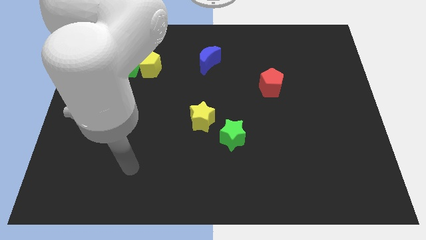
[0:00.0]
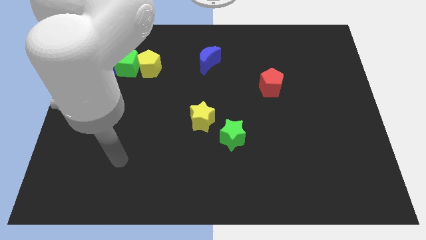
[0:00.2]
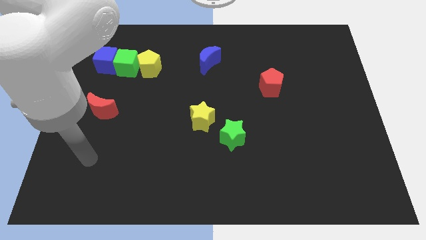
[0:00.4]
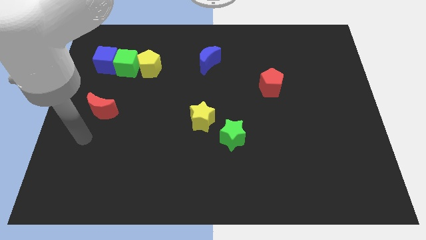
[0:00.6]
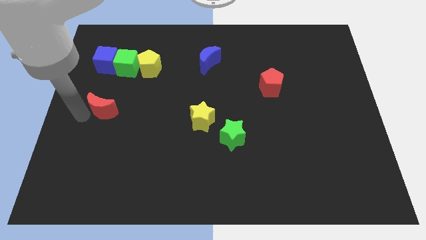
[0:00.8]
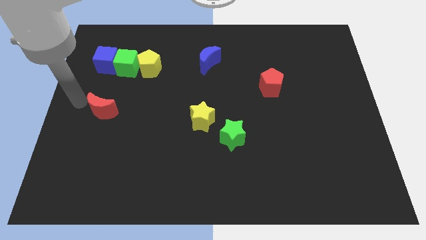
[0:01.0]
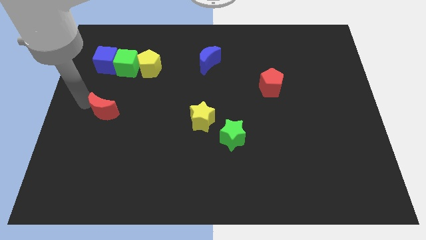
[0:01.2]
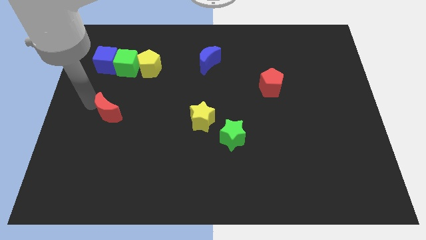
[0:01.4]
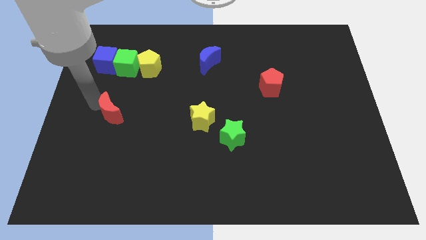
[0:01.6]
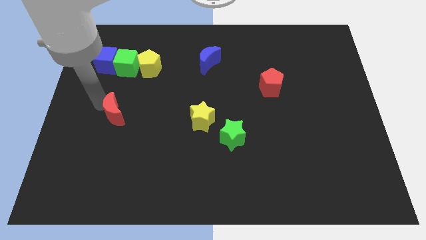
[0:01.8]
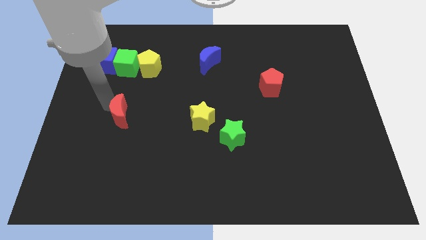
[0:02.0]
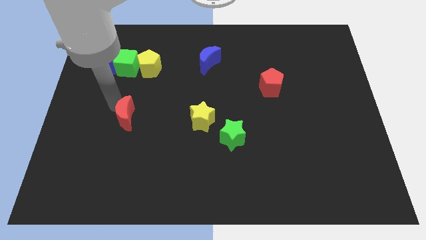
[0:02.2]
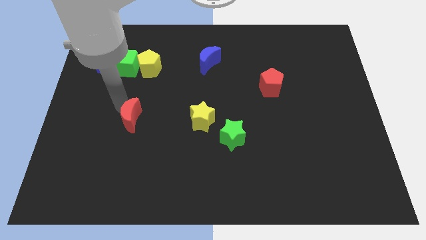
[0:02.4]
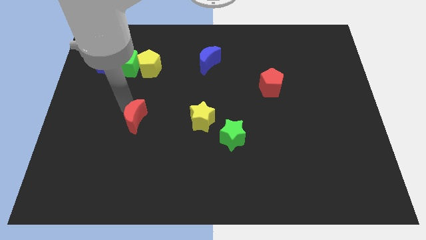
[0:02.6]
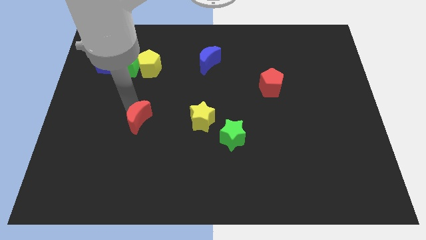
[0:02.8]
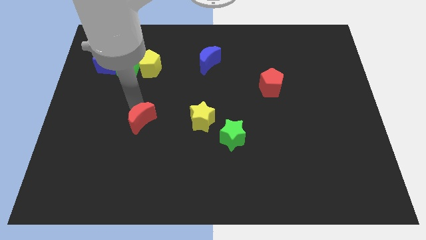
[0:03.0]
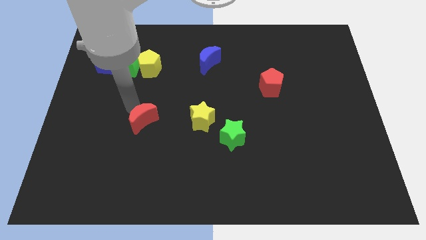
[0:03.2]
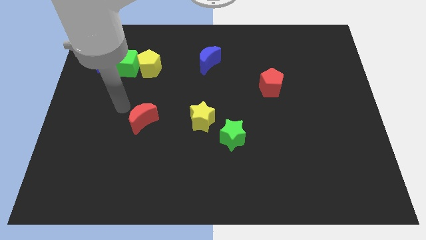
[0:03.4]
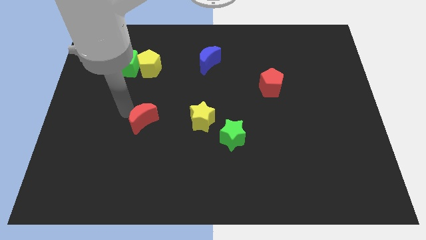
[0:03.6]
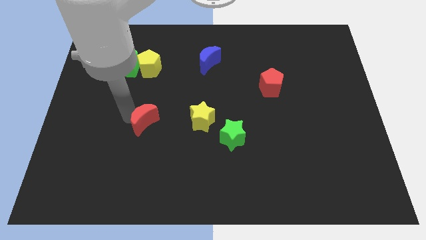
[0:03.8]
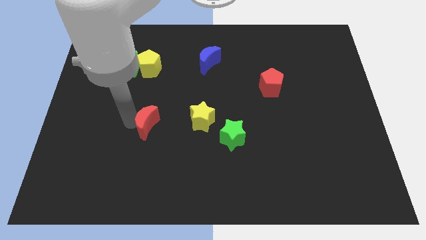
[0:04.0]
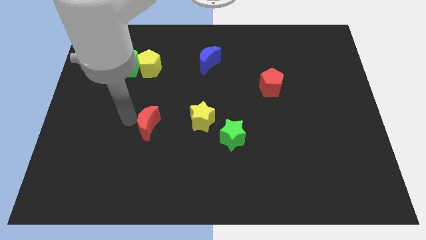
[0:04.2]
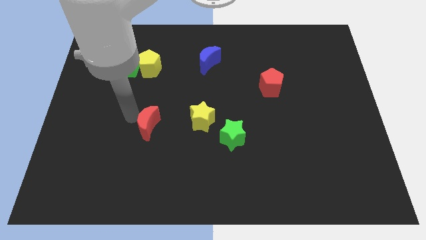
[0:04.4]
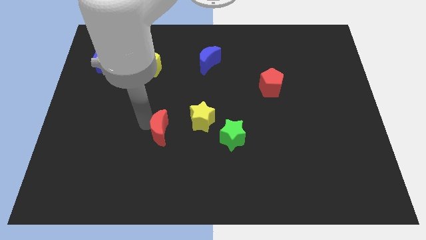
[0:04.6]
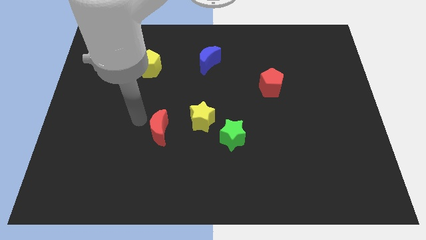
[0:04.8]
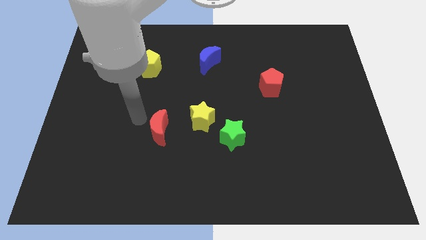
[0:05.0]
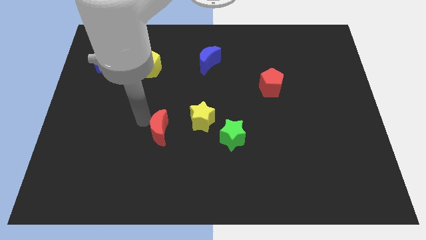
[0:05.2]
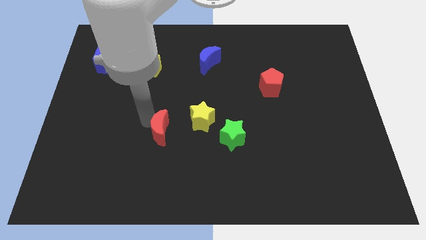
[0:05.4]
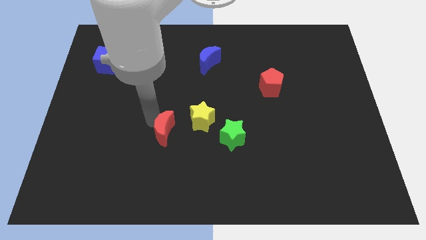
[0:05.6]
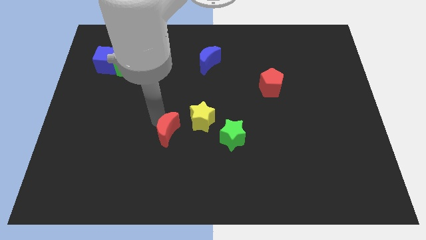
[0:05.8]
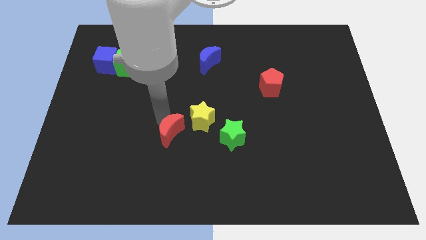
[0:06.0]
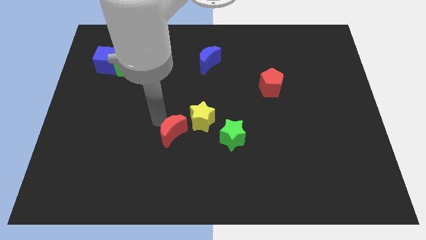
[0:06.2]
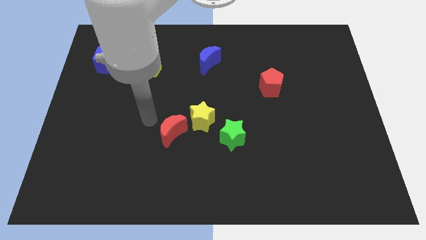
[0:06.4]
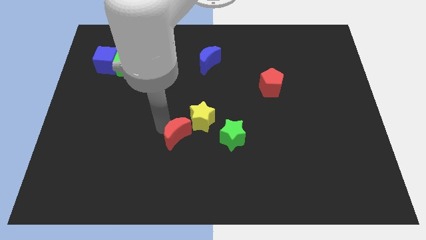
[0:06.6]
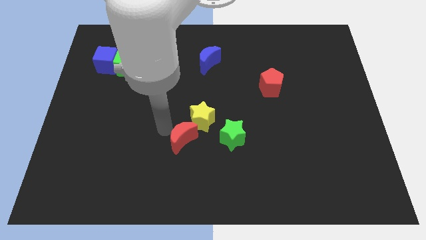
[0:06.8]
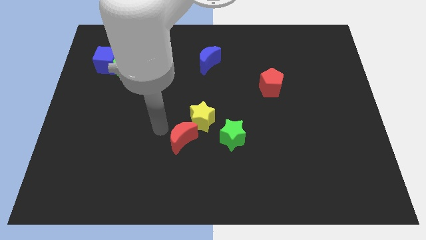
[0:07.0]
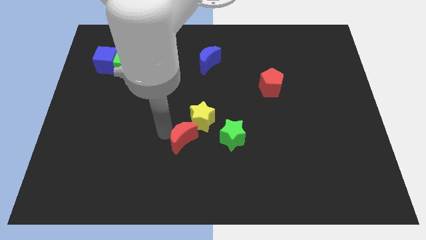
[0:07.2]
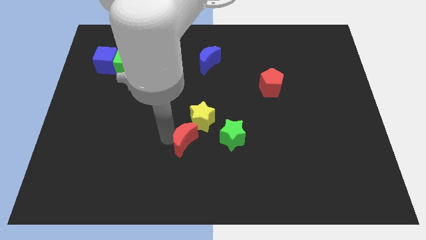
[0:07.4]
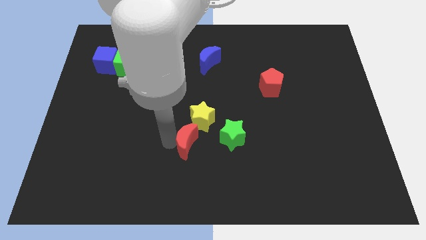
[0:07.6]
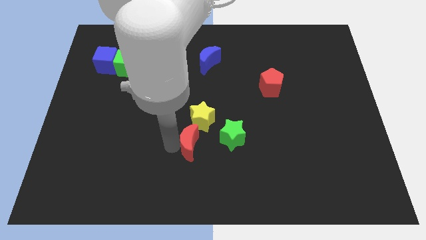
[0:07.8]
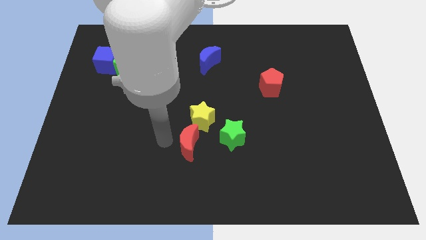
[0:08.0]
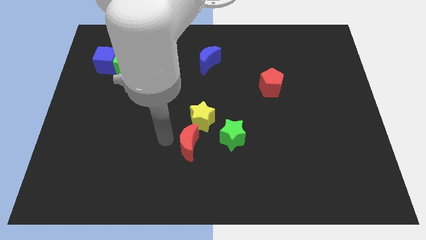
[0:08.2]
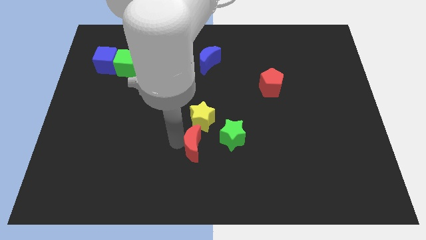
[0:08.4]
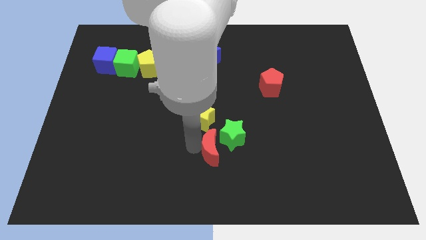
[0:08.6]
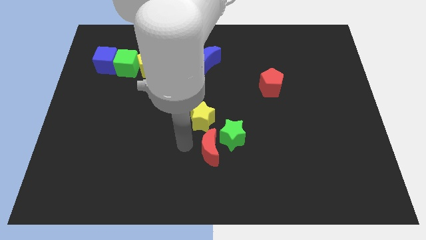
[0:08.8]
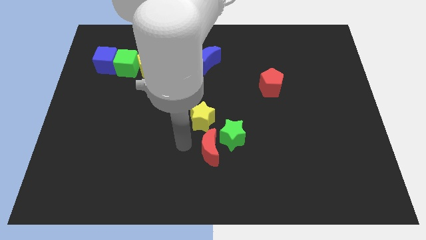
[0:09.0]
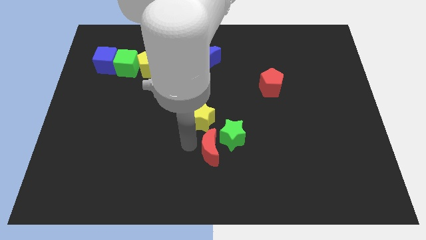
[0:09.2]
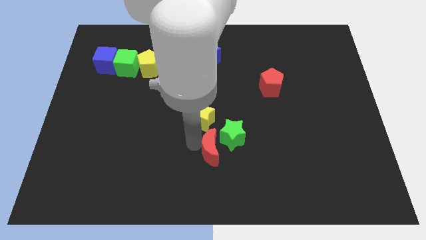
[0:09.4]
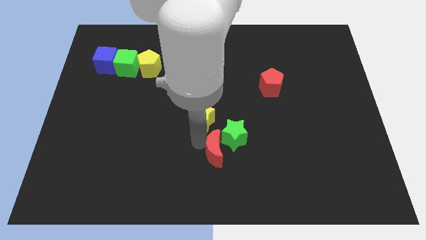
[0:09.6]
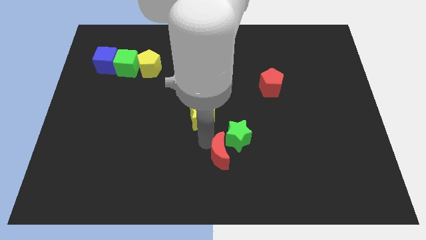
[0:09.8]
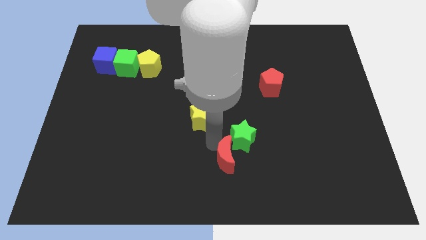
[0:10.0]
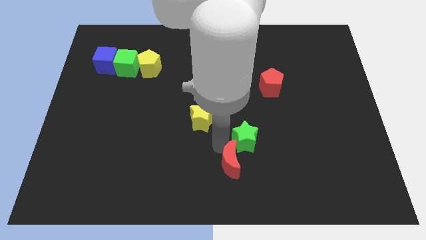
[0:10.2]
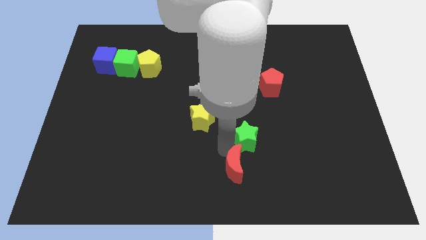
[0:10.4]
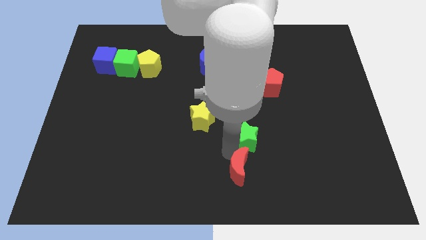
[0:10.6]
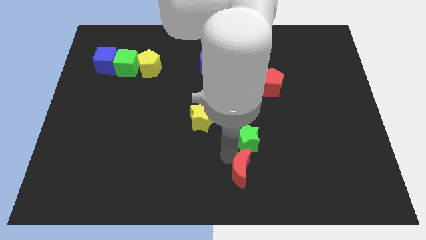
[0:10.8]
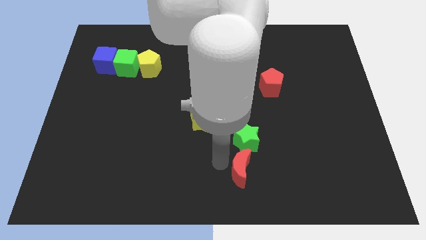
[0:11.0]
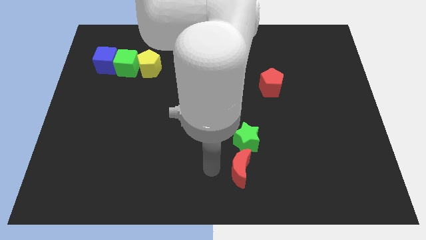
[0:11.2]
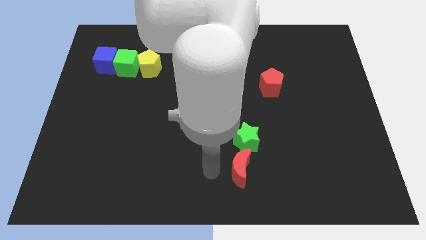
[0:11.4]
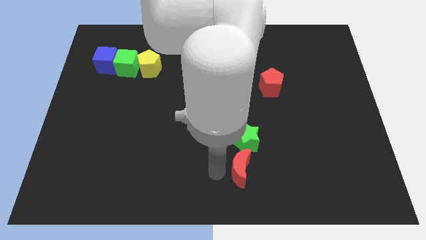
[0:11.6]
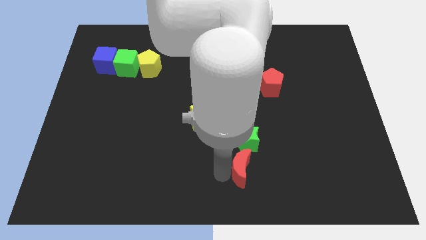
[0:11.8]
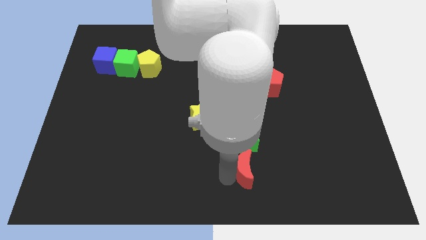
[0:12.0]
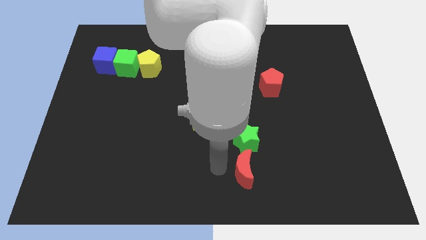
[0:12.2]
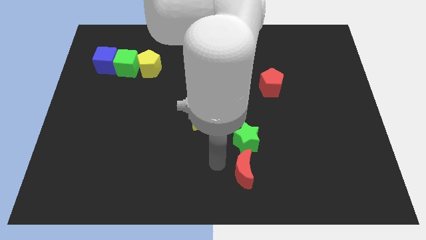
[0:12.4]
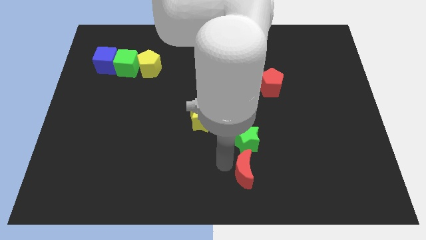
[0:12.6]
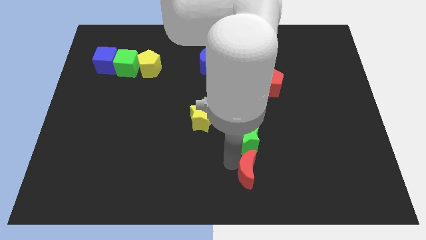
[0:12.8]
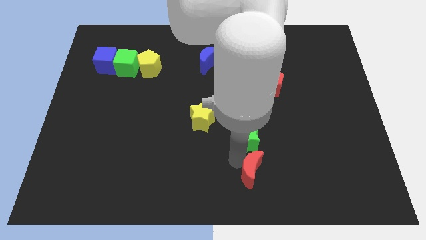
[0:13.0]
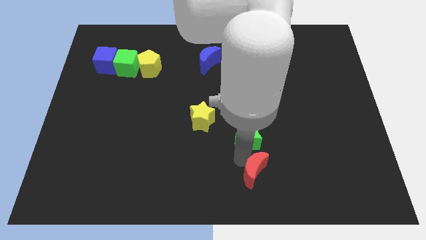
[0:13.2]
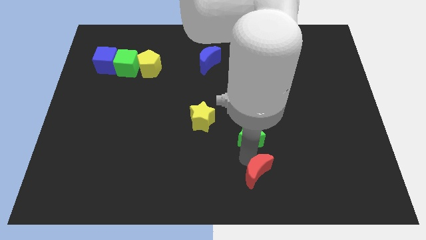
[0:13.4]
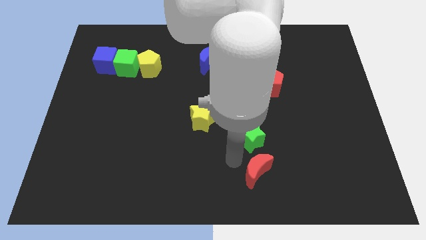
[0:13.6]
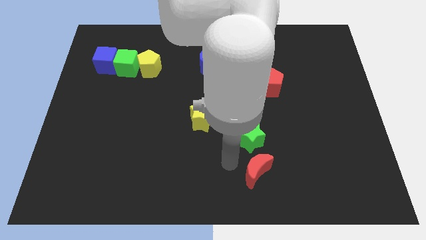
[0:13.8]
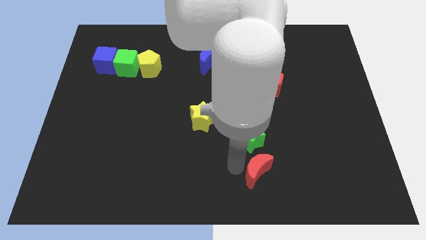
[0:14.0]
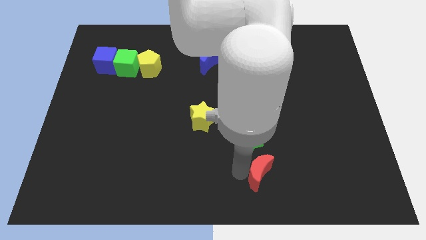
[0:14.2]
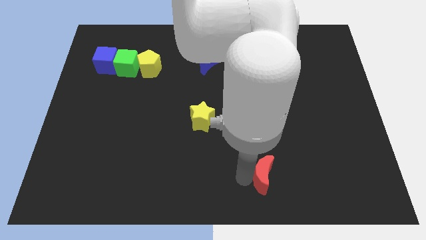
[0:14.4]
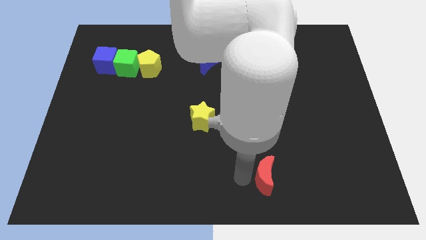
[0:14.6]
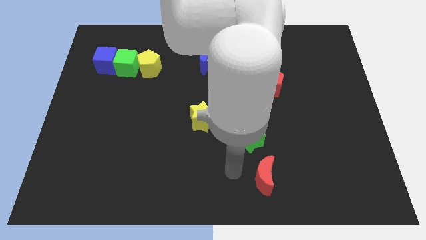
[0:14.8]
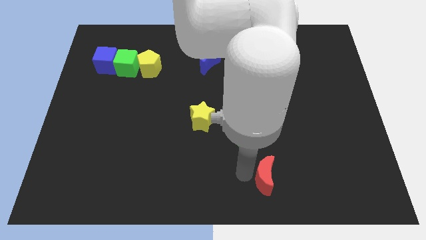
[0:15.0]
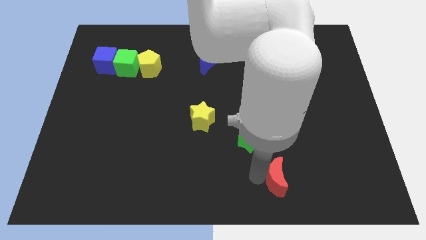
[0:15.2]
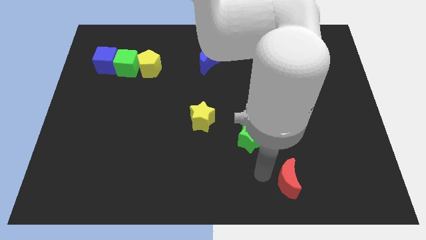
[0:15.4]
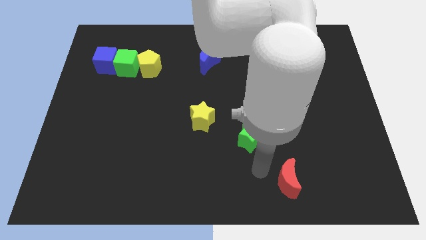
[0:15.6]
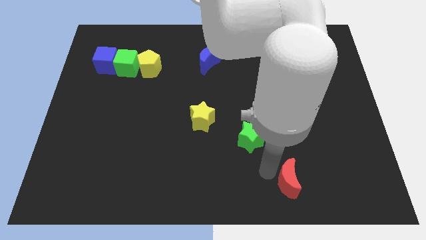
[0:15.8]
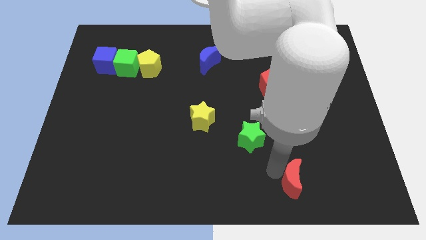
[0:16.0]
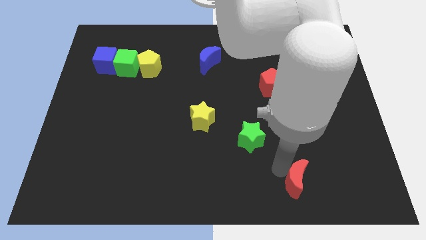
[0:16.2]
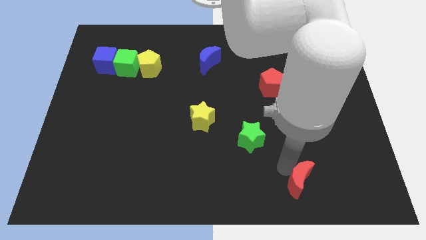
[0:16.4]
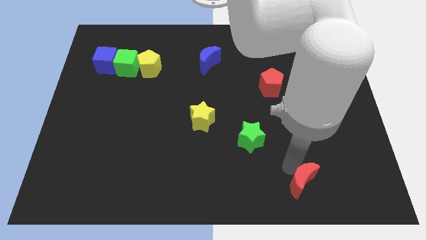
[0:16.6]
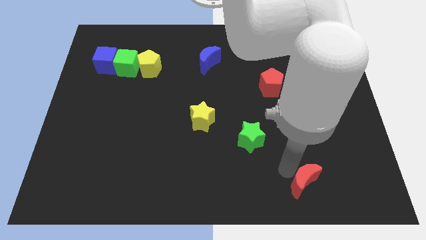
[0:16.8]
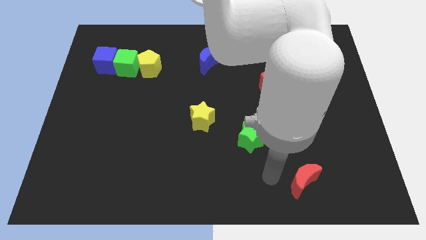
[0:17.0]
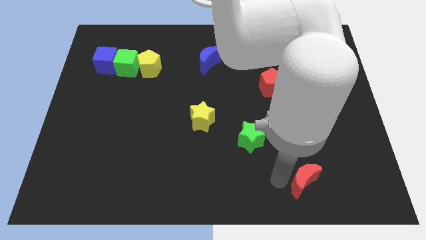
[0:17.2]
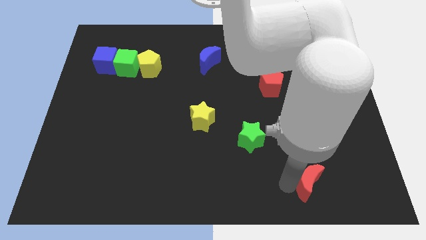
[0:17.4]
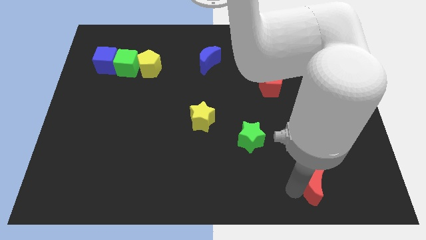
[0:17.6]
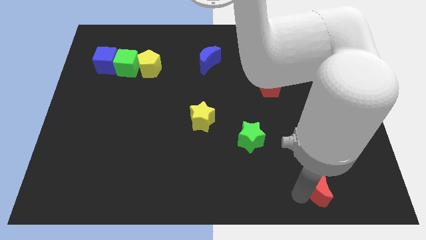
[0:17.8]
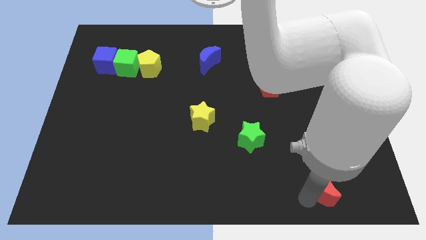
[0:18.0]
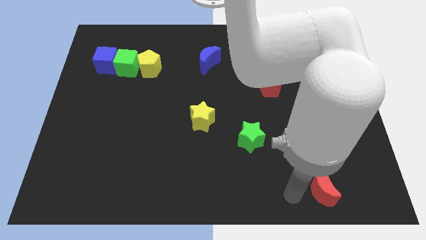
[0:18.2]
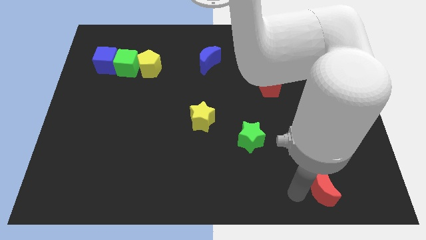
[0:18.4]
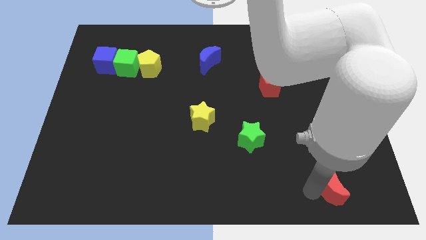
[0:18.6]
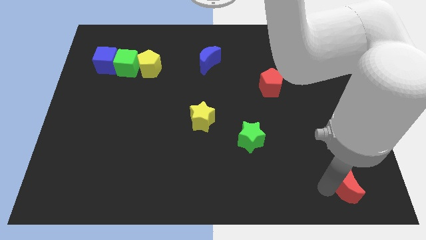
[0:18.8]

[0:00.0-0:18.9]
push the red moon to the lower right corner
